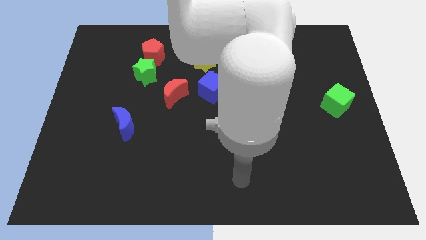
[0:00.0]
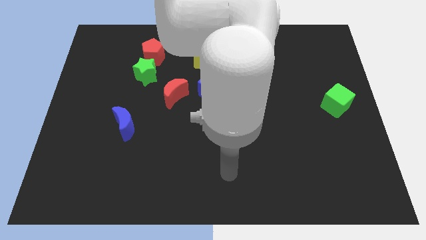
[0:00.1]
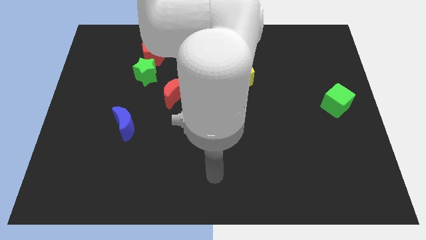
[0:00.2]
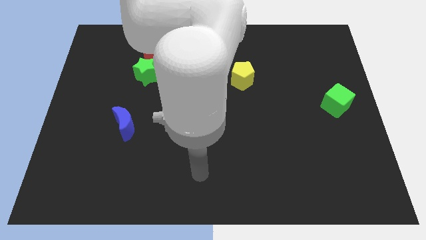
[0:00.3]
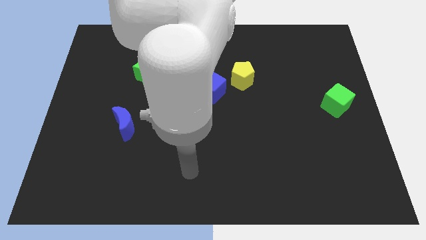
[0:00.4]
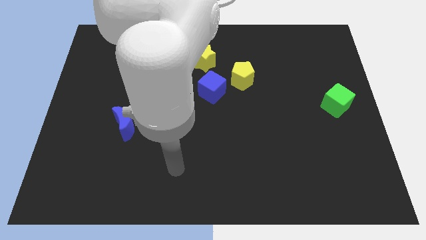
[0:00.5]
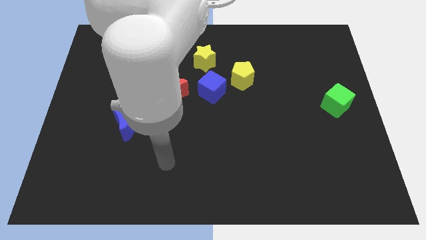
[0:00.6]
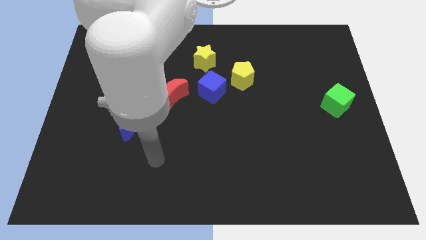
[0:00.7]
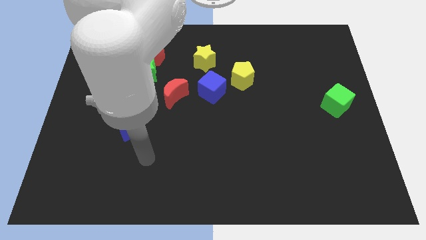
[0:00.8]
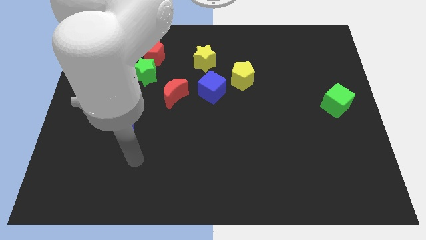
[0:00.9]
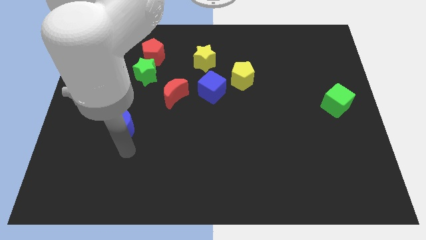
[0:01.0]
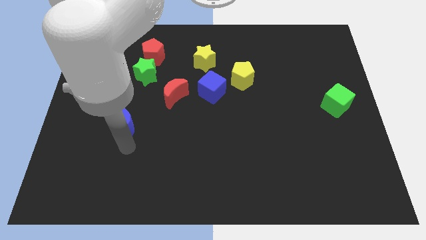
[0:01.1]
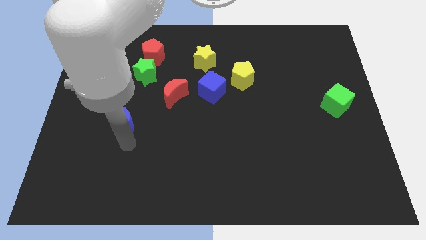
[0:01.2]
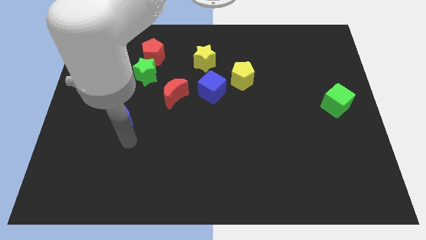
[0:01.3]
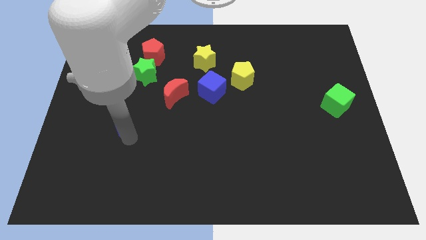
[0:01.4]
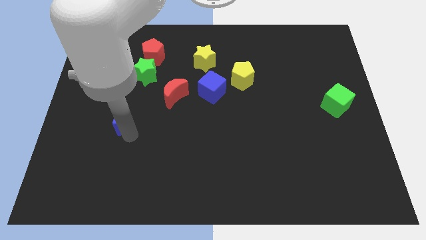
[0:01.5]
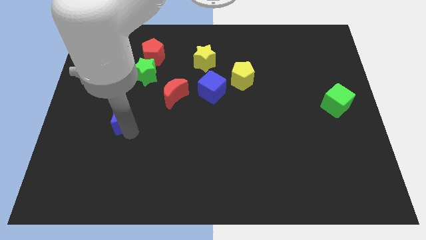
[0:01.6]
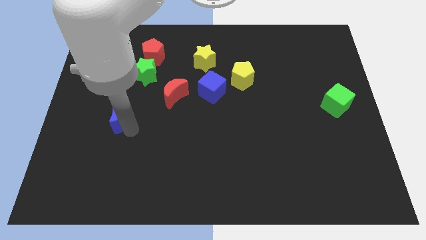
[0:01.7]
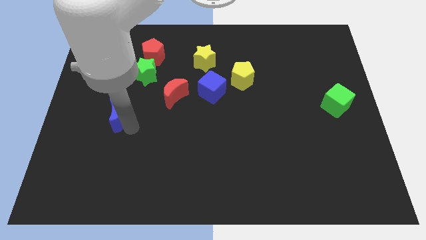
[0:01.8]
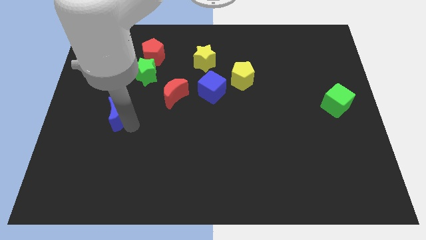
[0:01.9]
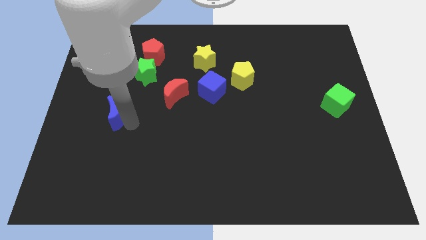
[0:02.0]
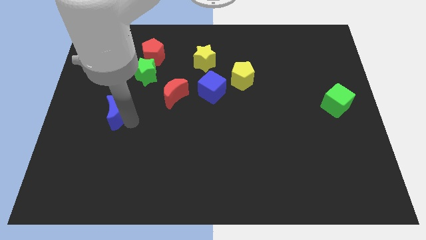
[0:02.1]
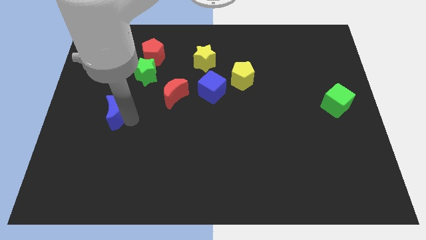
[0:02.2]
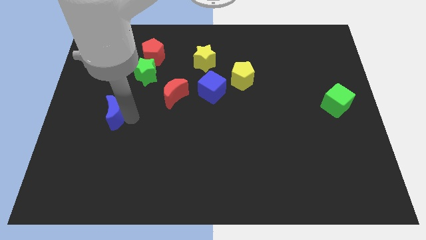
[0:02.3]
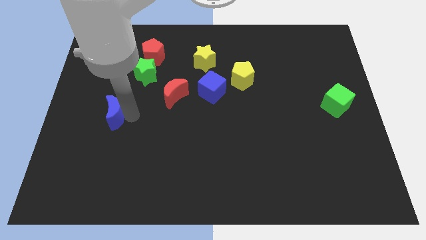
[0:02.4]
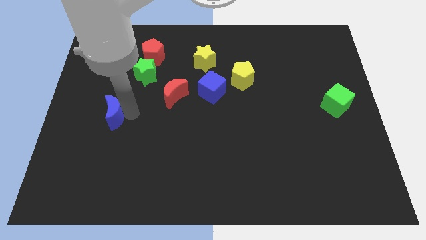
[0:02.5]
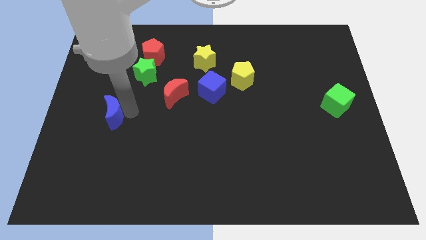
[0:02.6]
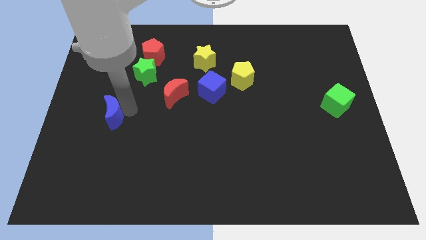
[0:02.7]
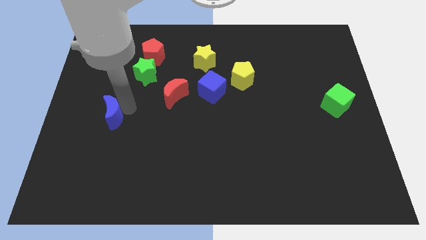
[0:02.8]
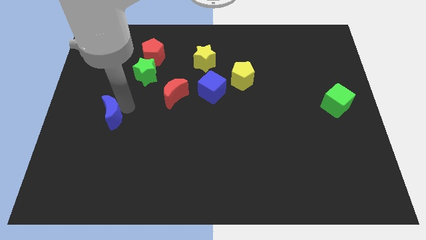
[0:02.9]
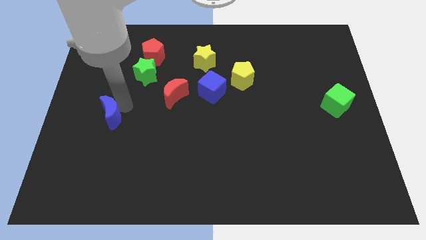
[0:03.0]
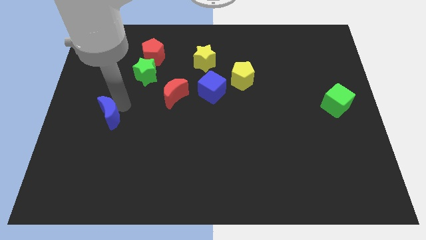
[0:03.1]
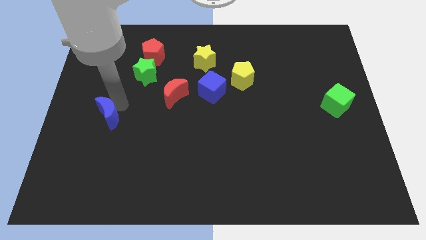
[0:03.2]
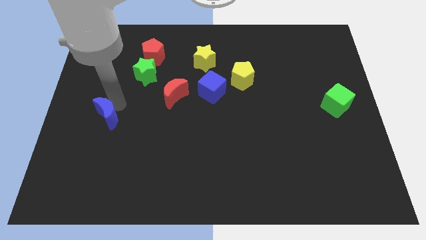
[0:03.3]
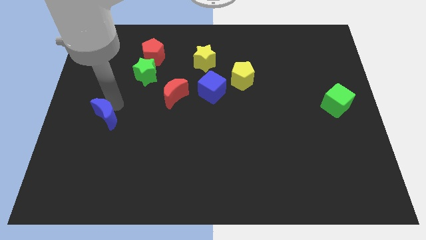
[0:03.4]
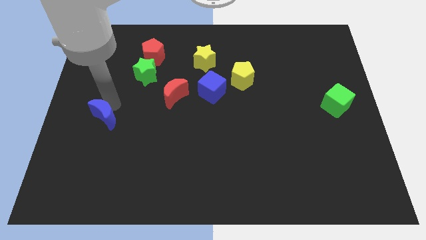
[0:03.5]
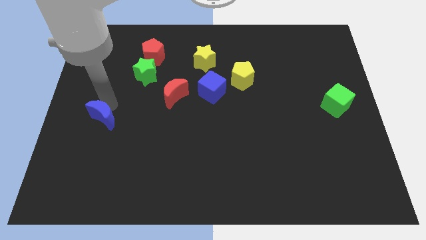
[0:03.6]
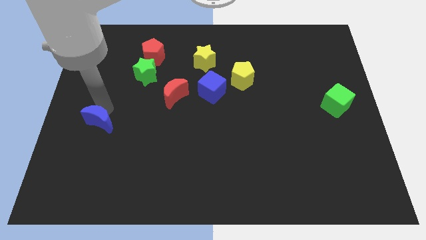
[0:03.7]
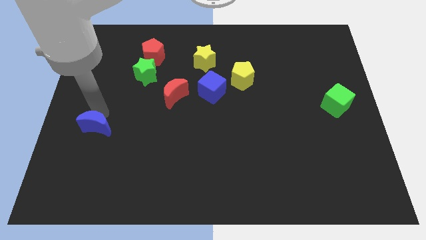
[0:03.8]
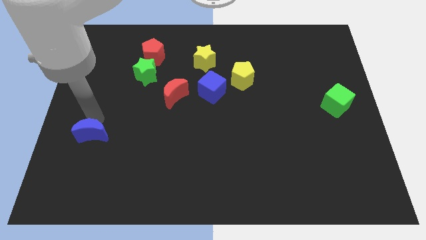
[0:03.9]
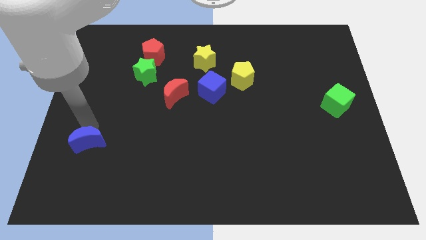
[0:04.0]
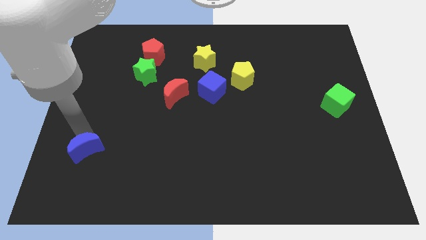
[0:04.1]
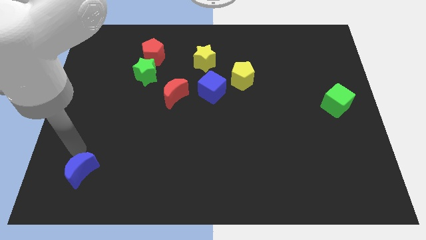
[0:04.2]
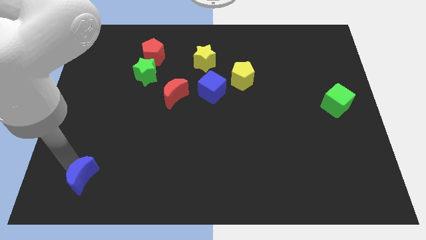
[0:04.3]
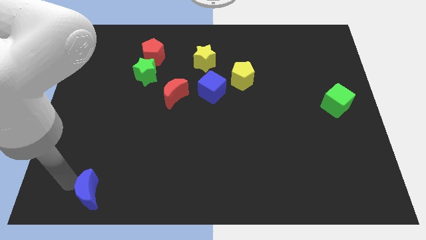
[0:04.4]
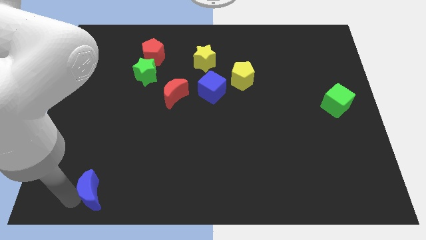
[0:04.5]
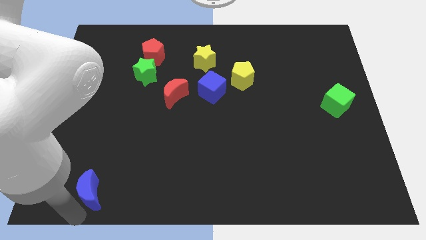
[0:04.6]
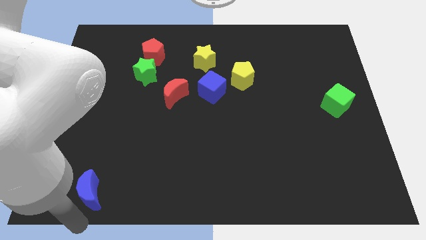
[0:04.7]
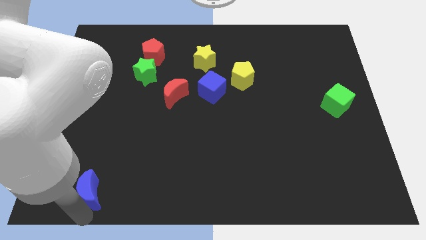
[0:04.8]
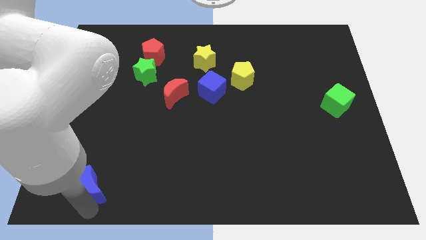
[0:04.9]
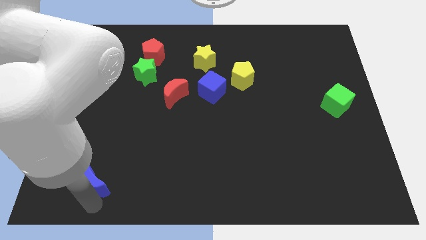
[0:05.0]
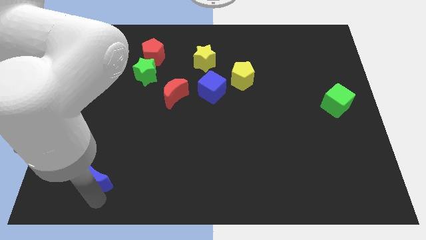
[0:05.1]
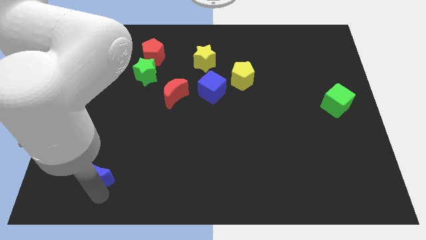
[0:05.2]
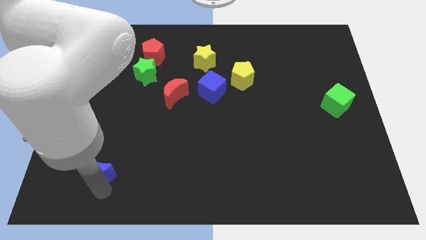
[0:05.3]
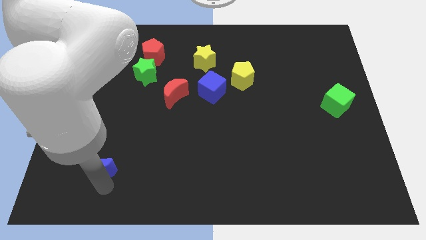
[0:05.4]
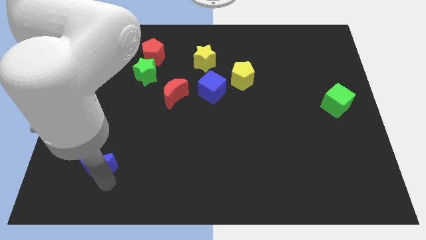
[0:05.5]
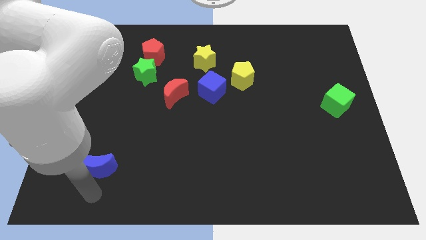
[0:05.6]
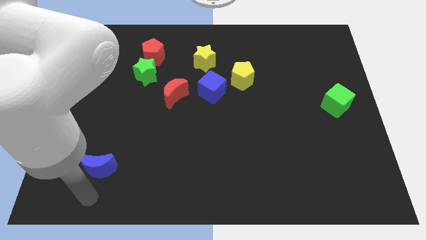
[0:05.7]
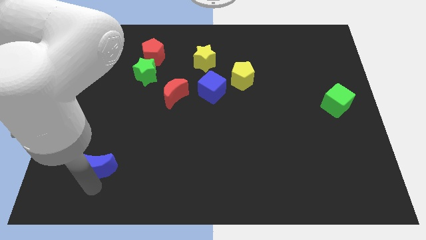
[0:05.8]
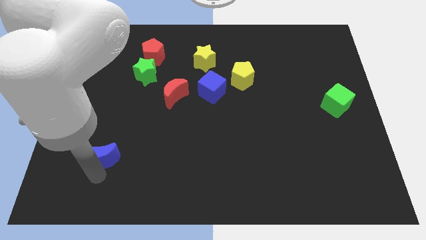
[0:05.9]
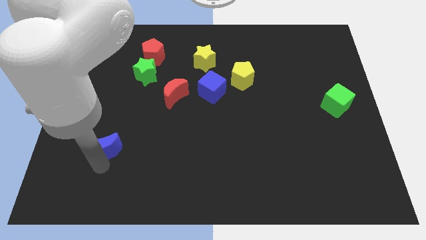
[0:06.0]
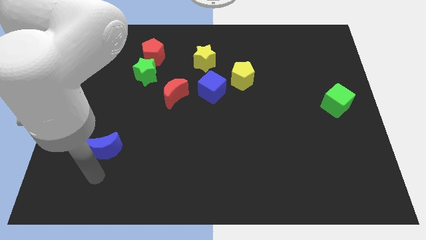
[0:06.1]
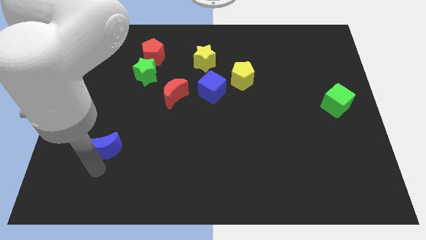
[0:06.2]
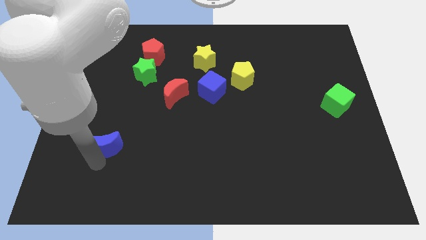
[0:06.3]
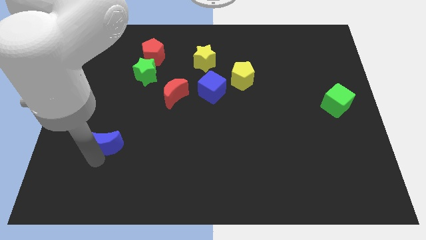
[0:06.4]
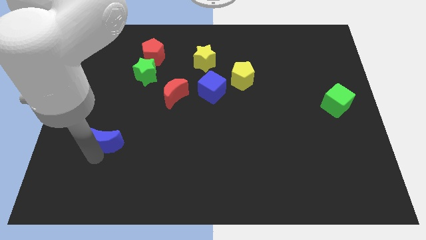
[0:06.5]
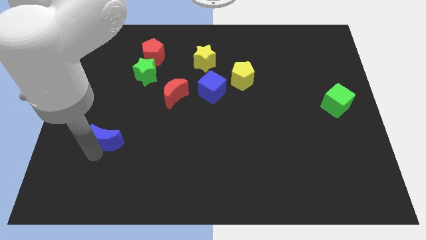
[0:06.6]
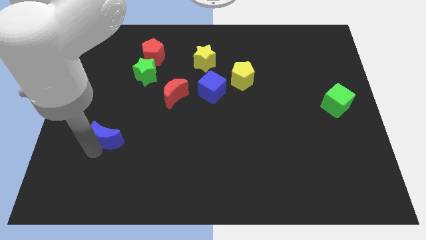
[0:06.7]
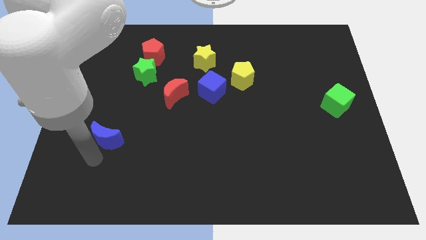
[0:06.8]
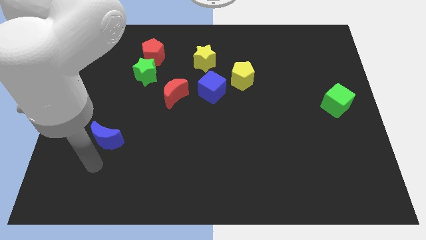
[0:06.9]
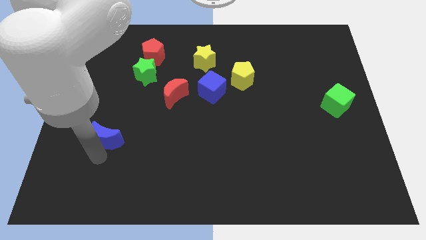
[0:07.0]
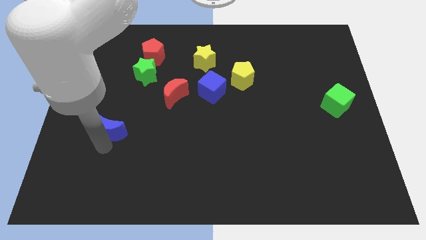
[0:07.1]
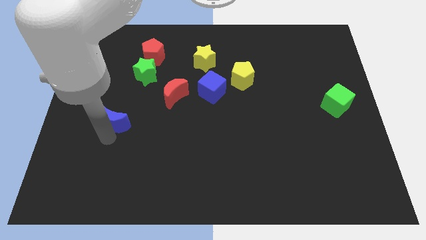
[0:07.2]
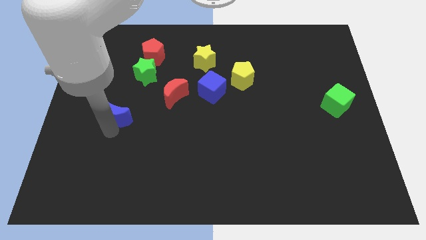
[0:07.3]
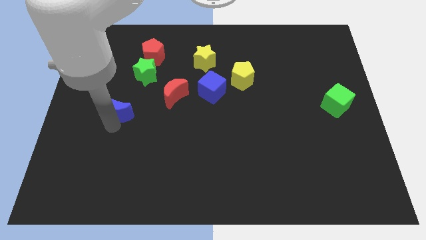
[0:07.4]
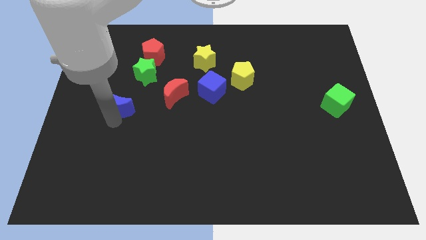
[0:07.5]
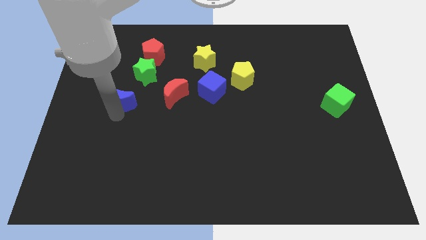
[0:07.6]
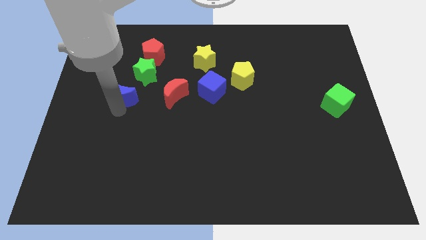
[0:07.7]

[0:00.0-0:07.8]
slide the blue moon up a little
